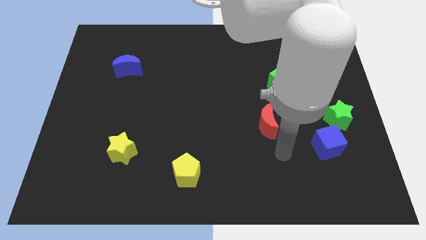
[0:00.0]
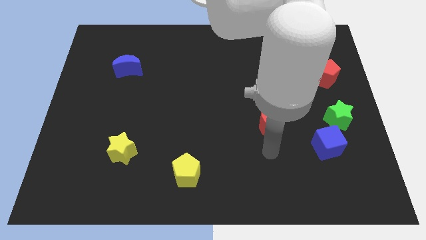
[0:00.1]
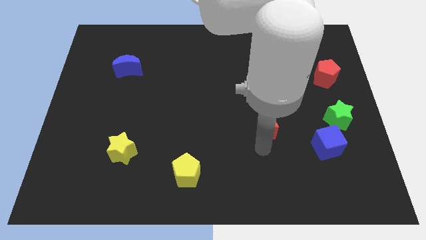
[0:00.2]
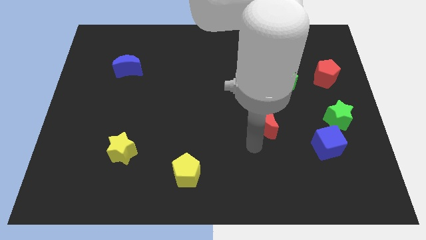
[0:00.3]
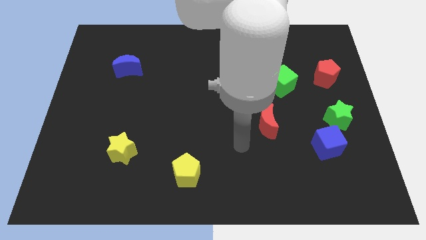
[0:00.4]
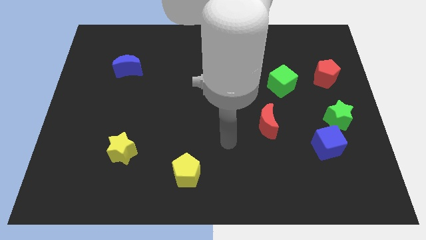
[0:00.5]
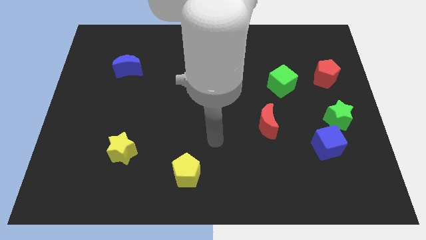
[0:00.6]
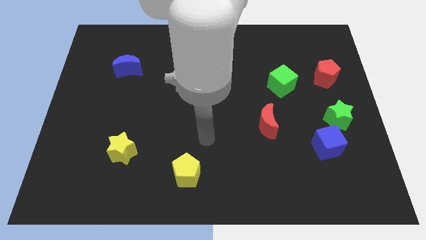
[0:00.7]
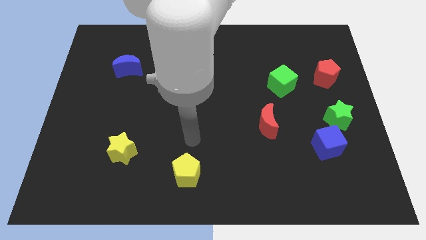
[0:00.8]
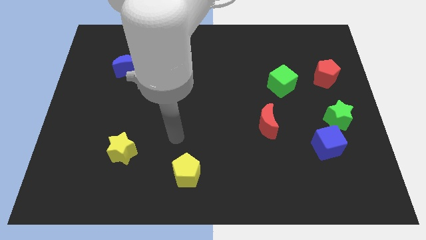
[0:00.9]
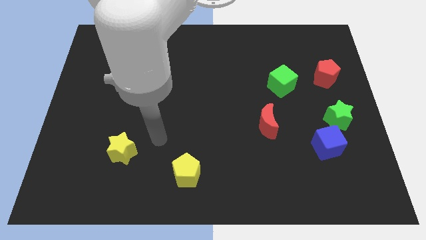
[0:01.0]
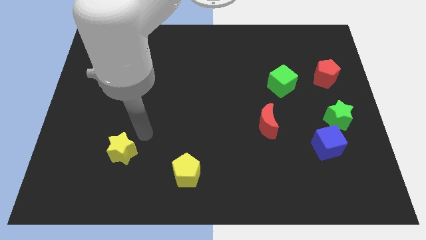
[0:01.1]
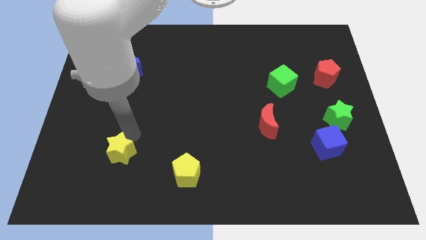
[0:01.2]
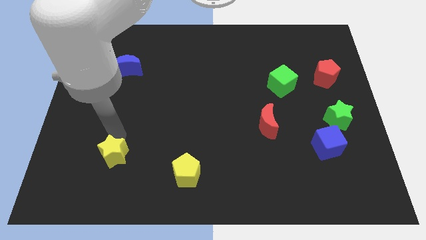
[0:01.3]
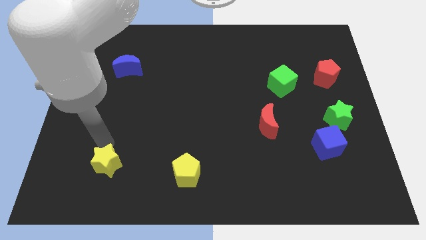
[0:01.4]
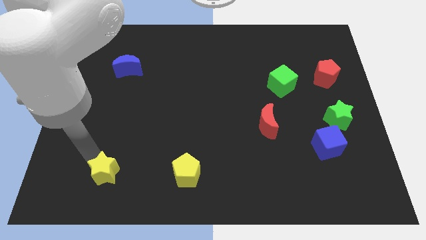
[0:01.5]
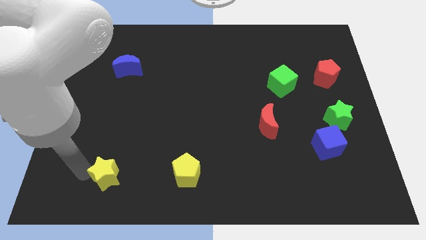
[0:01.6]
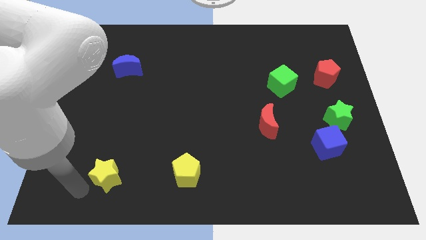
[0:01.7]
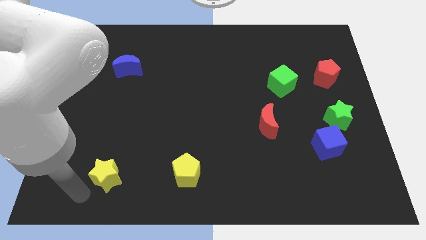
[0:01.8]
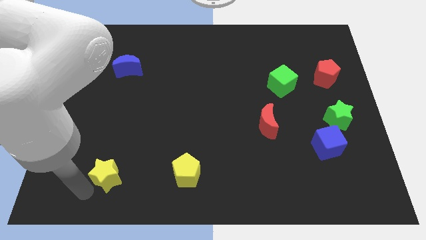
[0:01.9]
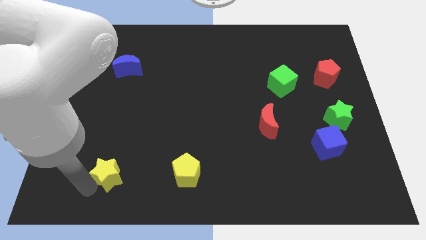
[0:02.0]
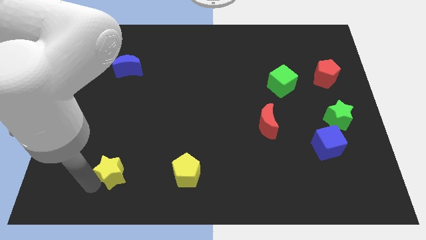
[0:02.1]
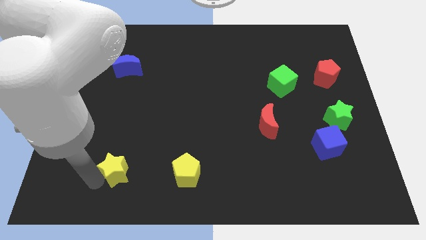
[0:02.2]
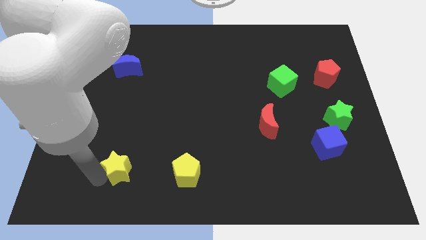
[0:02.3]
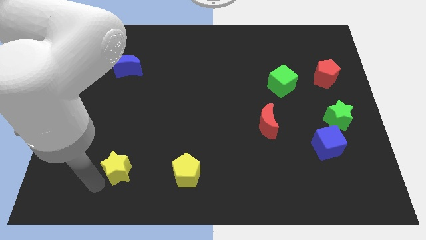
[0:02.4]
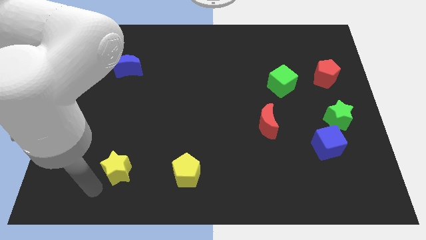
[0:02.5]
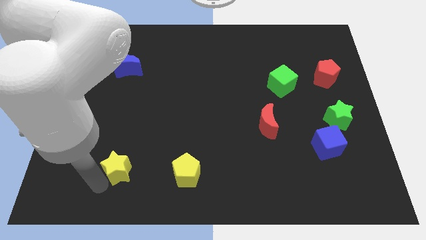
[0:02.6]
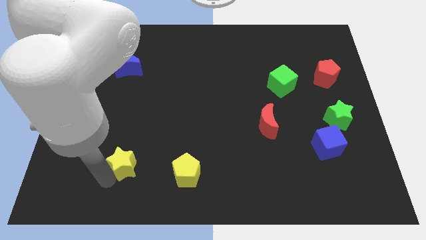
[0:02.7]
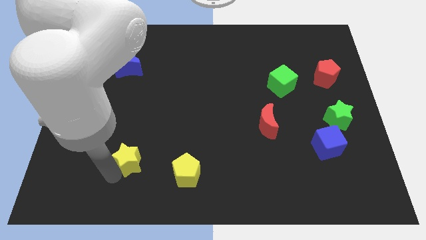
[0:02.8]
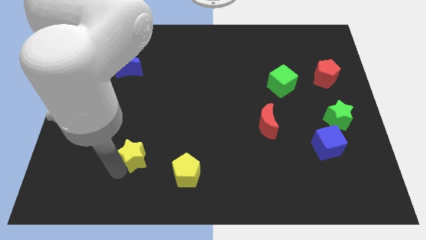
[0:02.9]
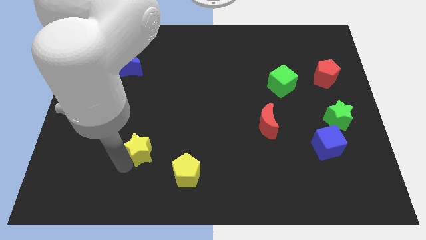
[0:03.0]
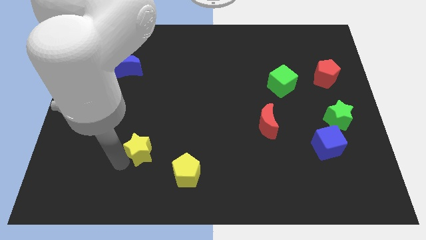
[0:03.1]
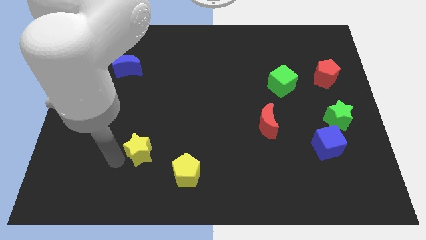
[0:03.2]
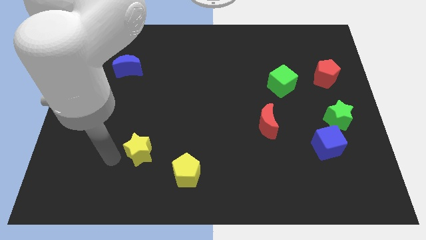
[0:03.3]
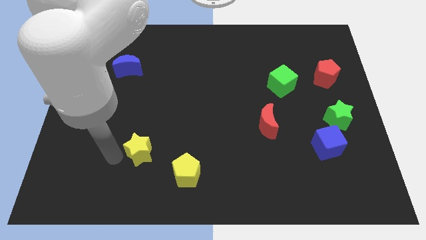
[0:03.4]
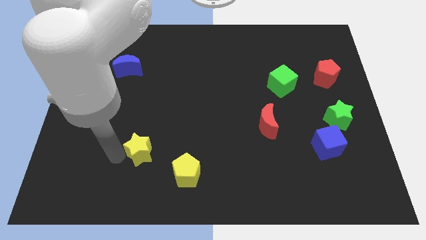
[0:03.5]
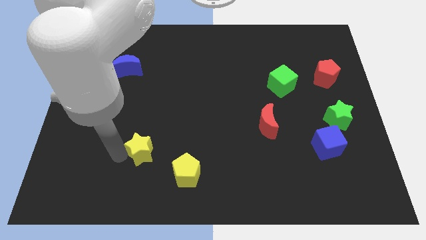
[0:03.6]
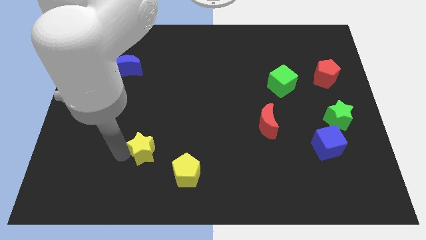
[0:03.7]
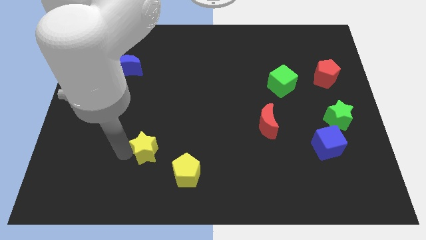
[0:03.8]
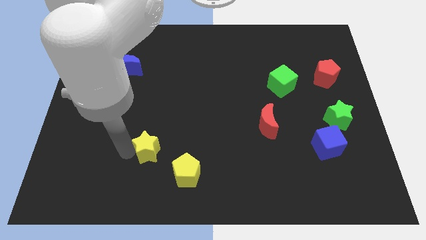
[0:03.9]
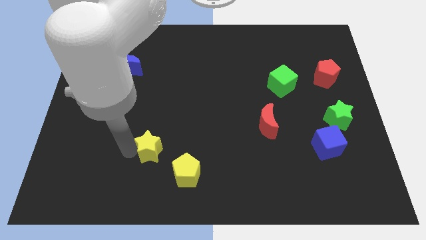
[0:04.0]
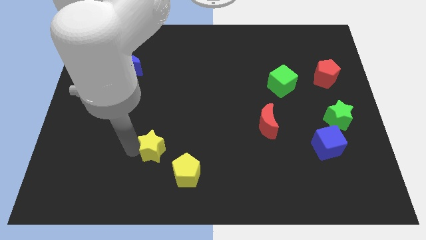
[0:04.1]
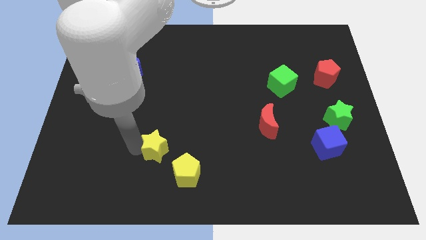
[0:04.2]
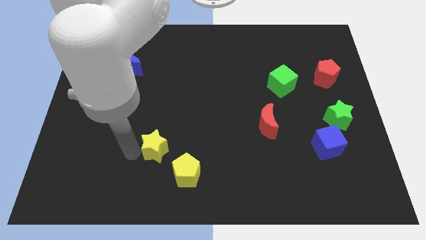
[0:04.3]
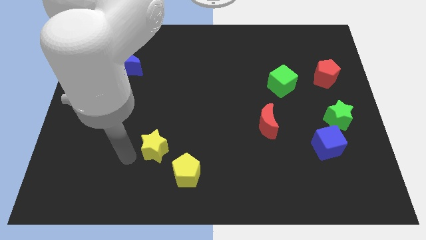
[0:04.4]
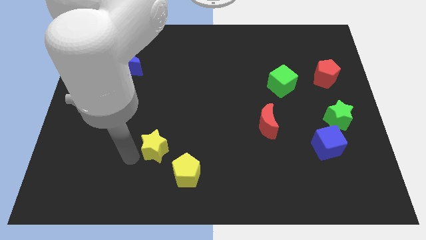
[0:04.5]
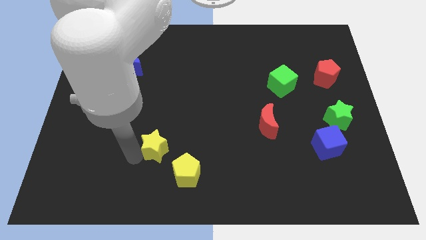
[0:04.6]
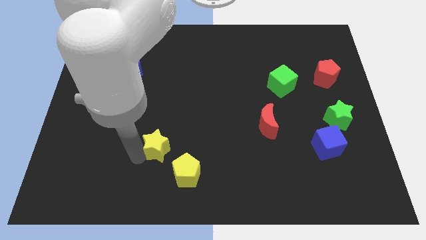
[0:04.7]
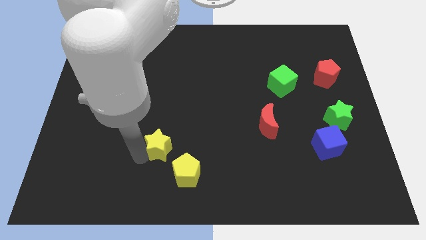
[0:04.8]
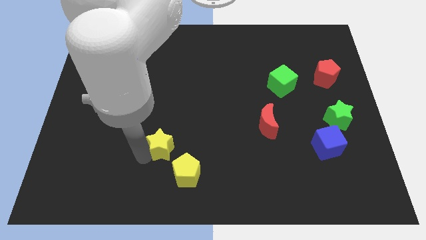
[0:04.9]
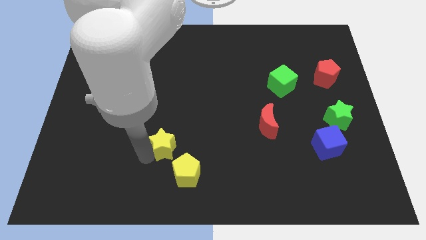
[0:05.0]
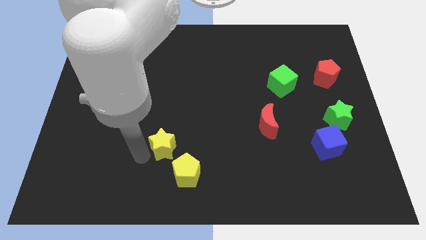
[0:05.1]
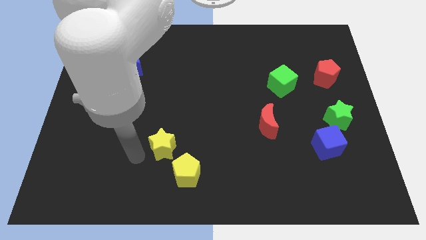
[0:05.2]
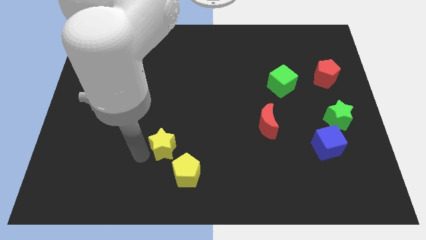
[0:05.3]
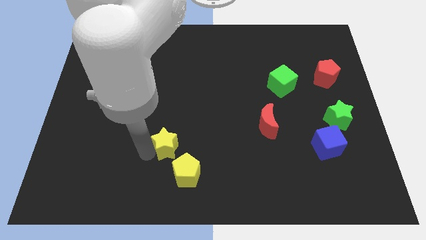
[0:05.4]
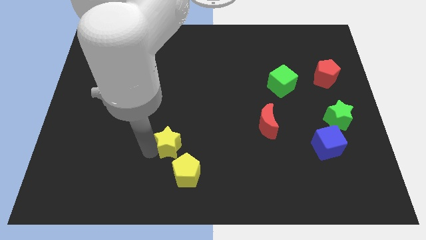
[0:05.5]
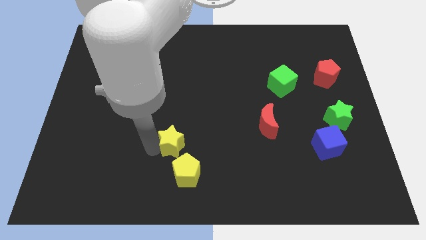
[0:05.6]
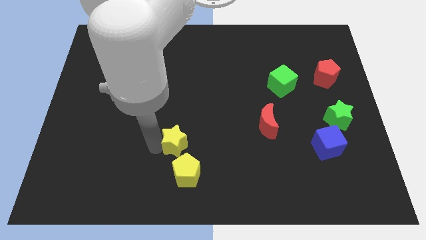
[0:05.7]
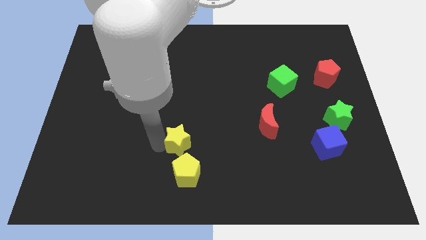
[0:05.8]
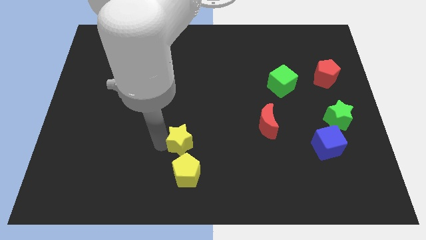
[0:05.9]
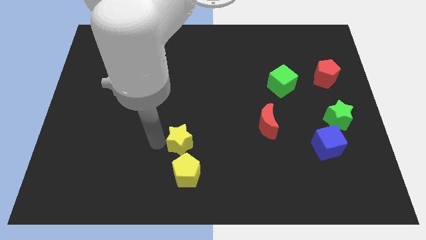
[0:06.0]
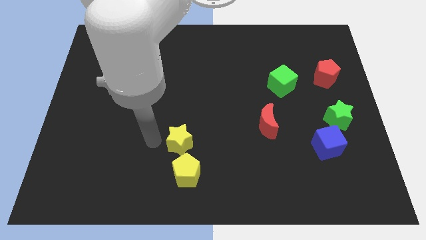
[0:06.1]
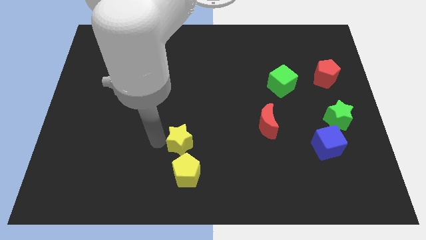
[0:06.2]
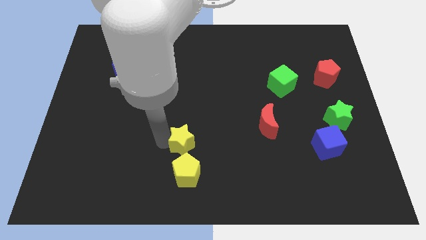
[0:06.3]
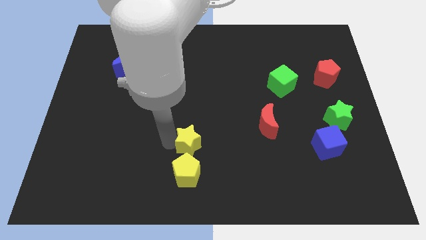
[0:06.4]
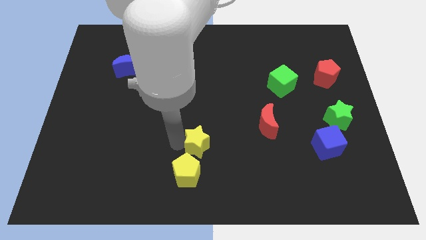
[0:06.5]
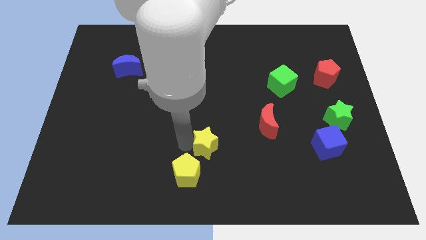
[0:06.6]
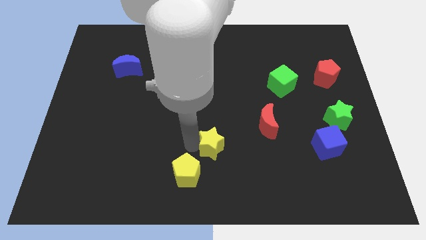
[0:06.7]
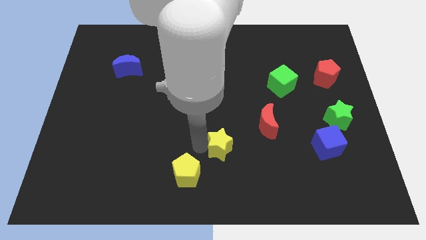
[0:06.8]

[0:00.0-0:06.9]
push the yellow star to the bottom left of the red moon

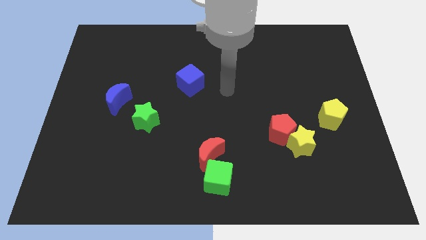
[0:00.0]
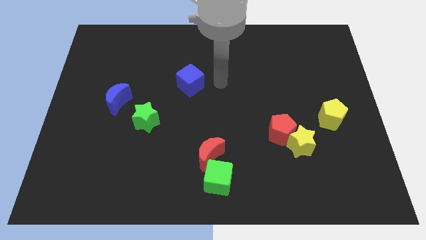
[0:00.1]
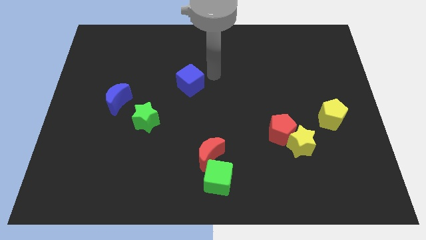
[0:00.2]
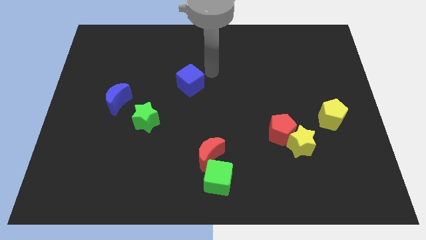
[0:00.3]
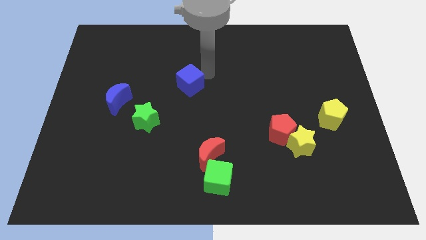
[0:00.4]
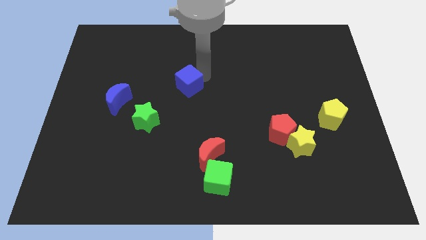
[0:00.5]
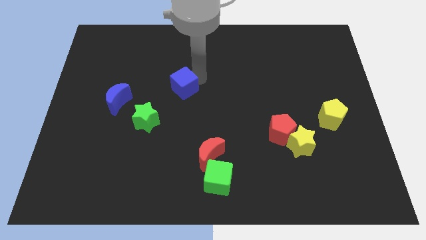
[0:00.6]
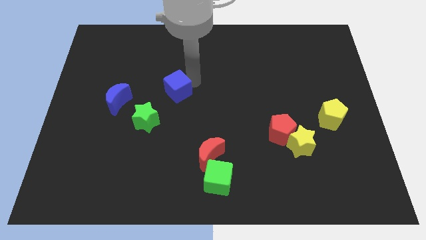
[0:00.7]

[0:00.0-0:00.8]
slide the blue cube to the right side of the blue moon

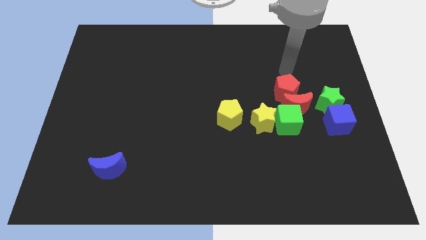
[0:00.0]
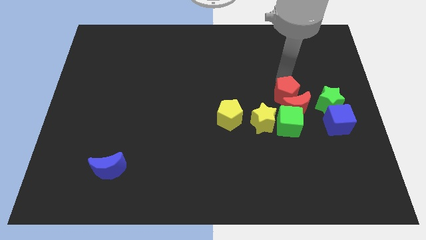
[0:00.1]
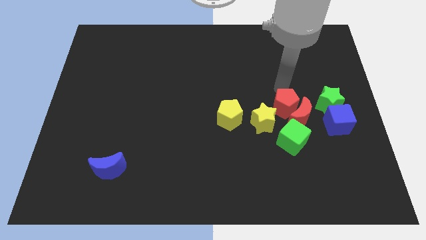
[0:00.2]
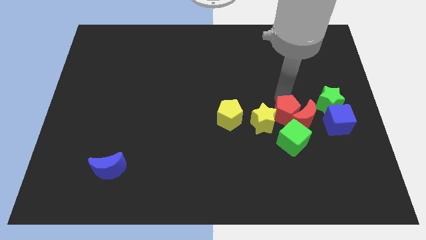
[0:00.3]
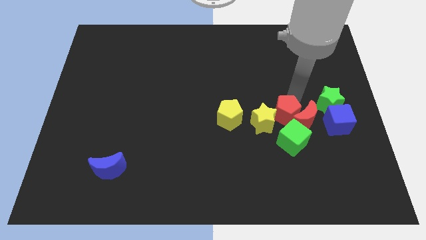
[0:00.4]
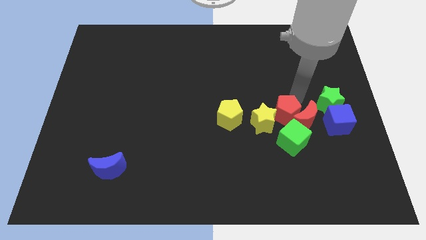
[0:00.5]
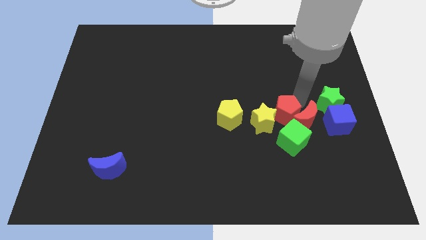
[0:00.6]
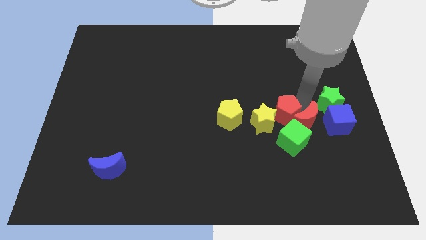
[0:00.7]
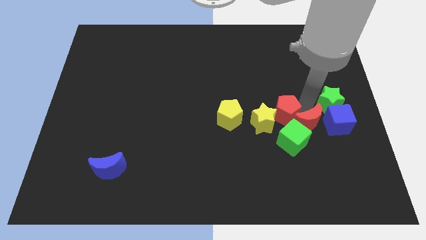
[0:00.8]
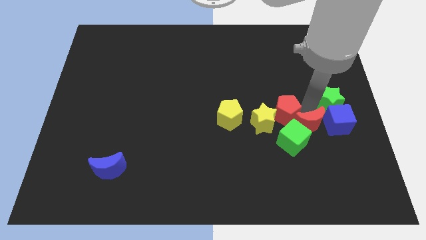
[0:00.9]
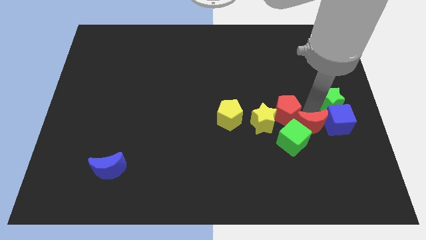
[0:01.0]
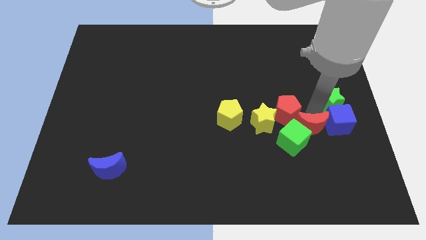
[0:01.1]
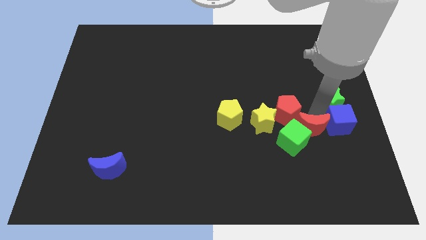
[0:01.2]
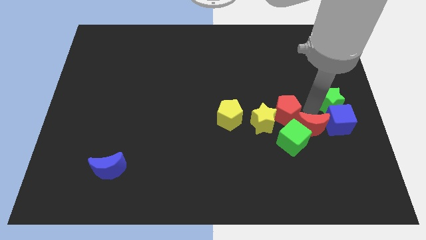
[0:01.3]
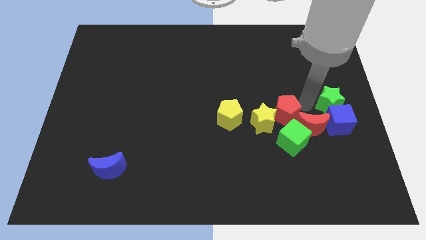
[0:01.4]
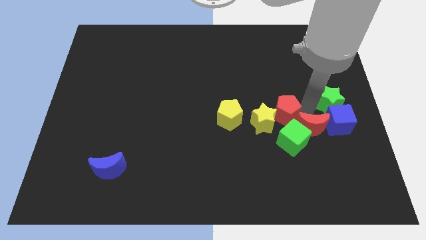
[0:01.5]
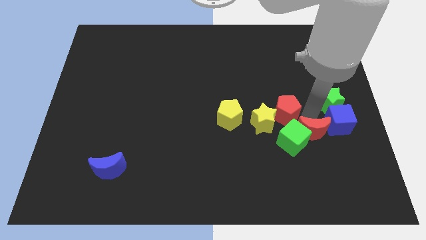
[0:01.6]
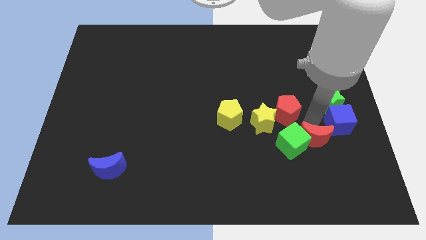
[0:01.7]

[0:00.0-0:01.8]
push the red moon to the bottom right side of the green cube
